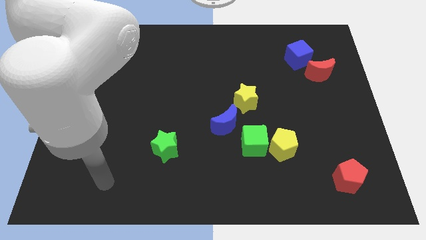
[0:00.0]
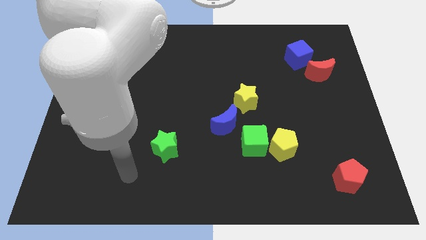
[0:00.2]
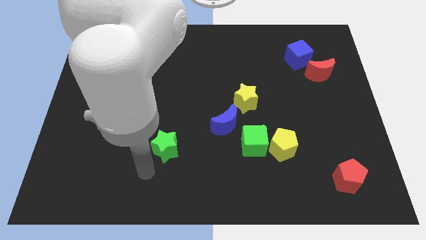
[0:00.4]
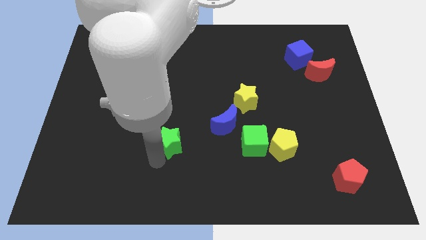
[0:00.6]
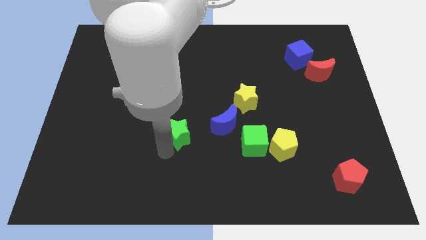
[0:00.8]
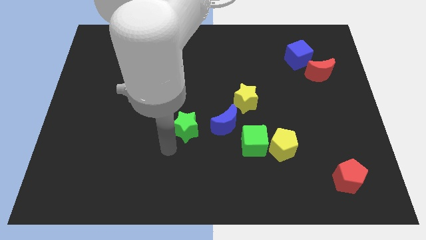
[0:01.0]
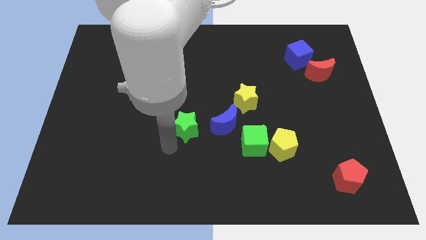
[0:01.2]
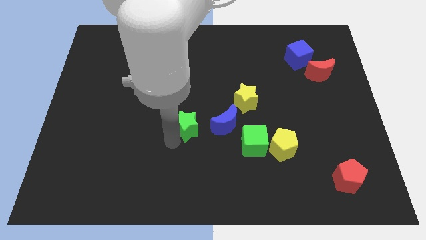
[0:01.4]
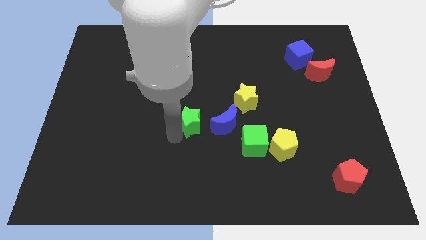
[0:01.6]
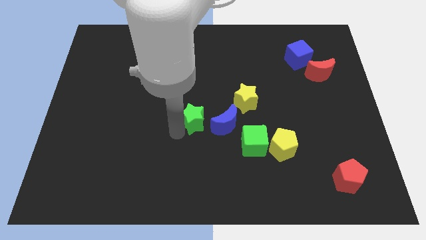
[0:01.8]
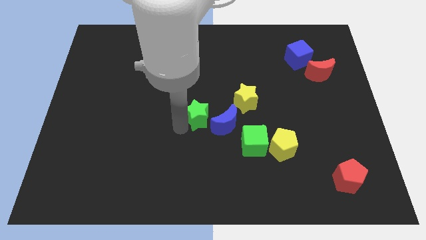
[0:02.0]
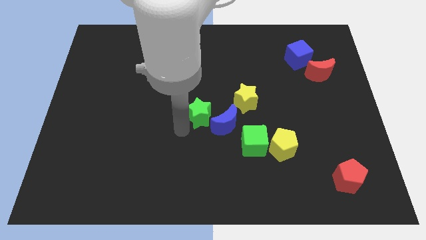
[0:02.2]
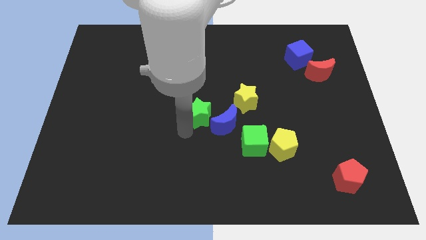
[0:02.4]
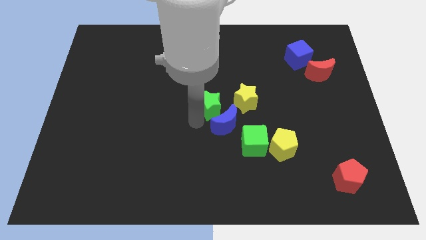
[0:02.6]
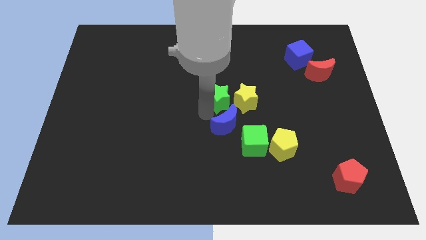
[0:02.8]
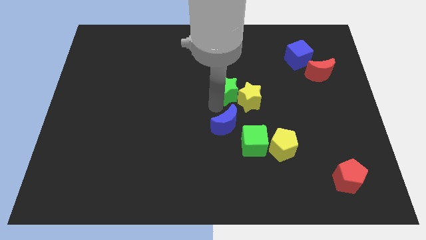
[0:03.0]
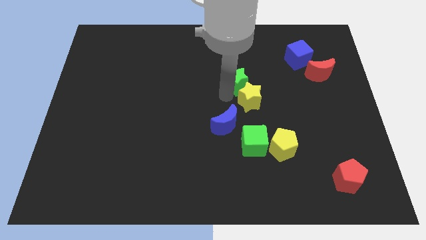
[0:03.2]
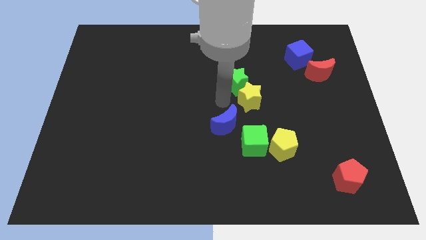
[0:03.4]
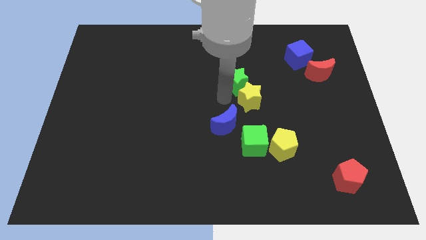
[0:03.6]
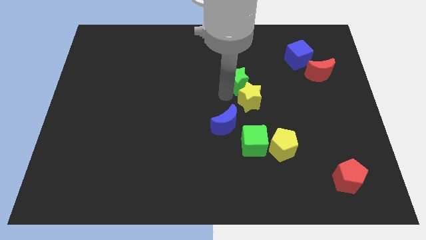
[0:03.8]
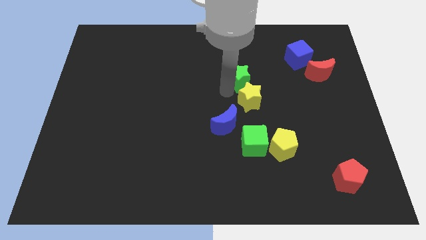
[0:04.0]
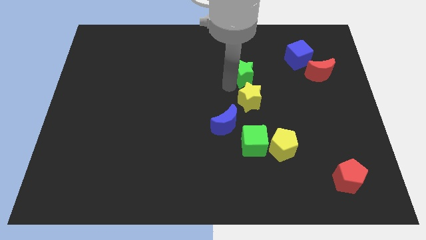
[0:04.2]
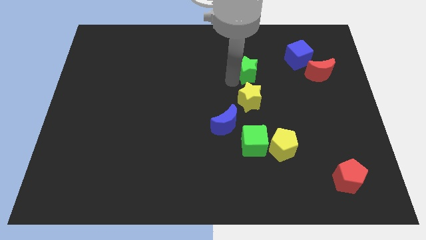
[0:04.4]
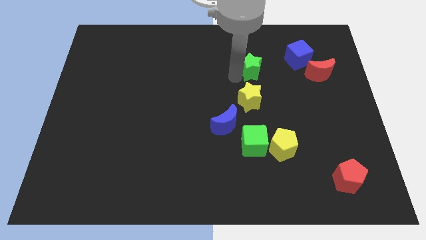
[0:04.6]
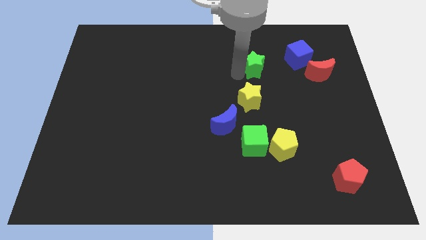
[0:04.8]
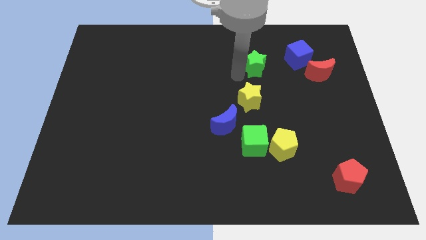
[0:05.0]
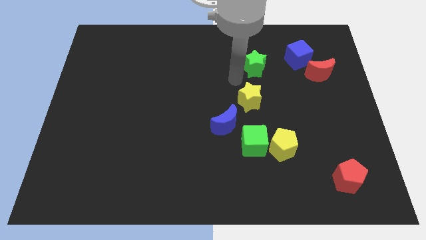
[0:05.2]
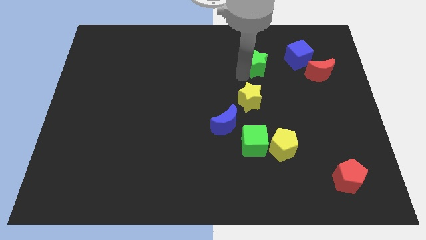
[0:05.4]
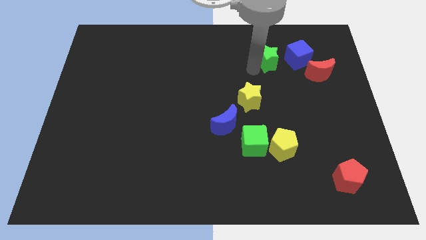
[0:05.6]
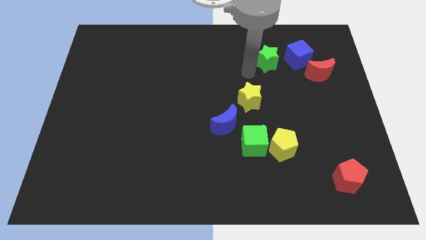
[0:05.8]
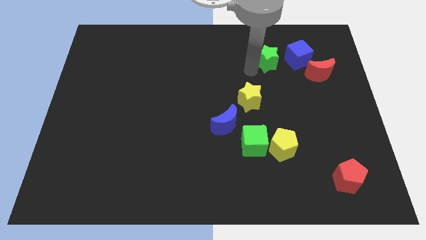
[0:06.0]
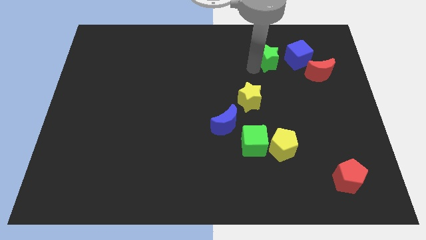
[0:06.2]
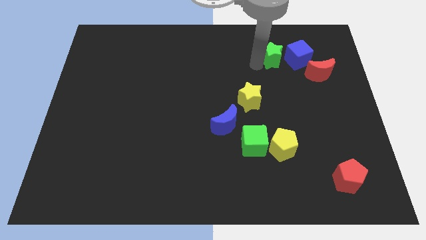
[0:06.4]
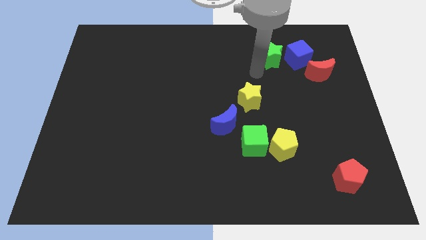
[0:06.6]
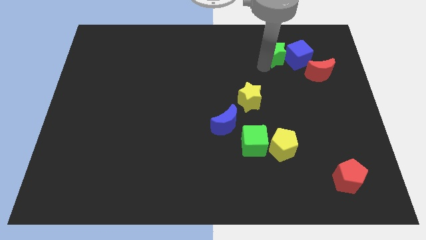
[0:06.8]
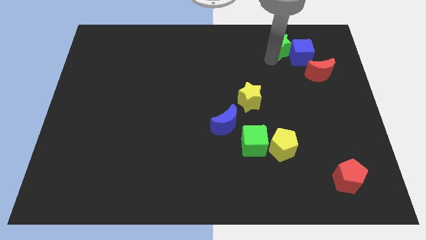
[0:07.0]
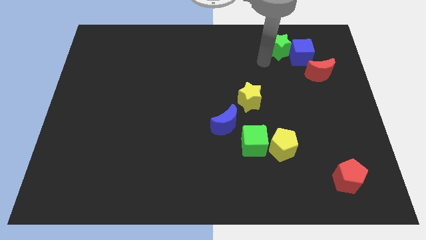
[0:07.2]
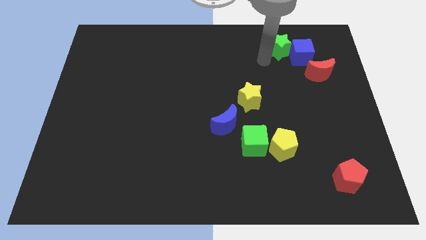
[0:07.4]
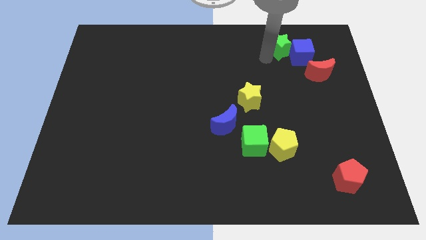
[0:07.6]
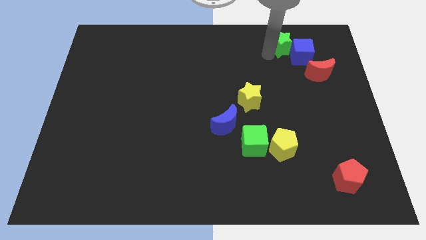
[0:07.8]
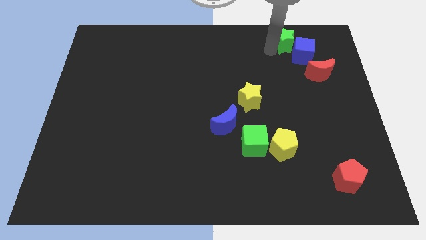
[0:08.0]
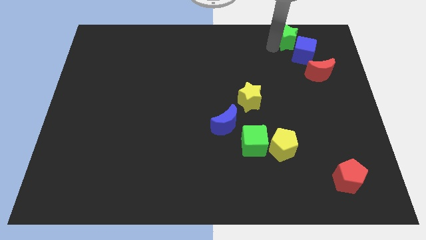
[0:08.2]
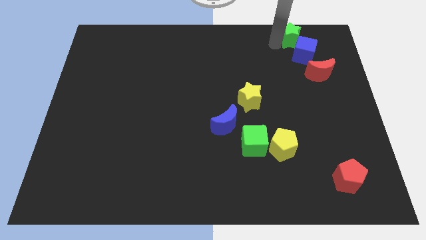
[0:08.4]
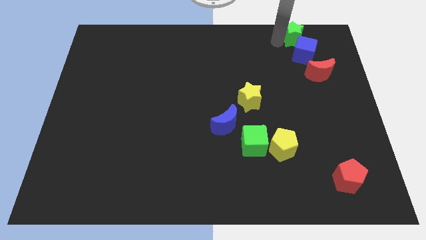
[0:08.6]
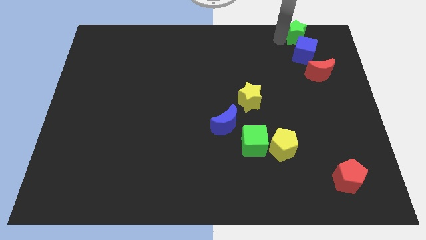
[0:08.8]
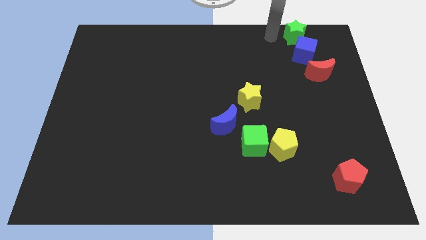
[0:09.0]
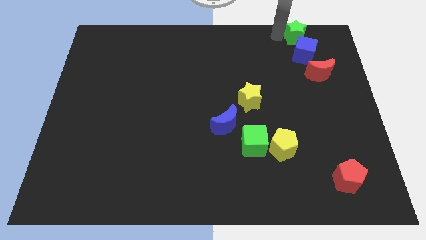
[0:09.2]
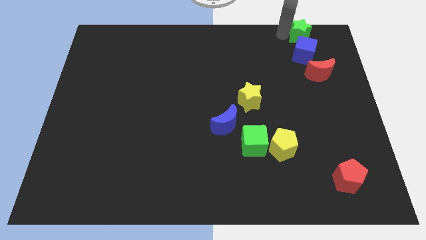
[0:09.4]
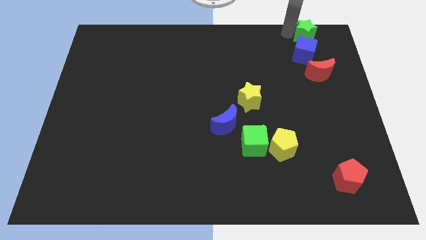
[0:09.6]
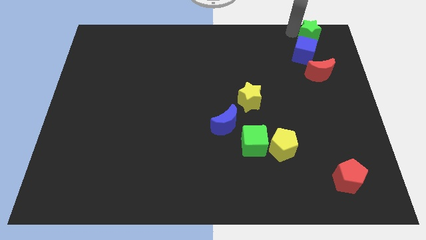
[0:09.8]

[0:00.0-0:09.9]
put the green star to the upper right corner

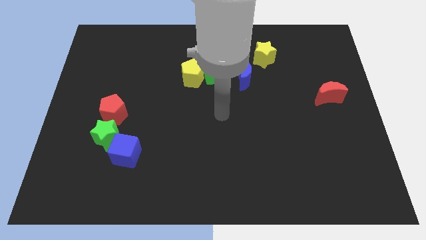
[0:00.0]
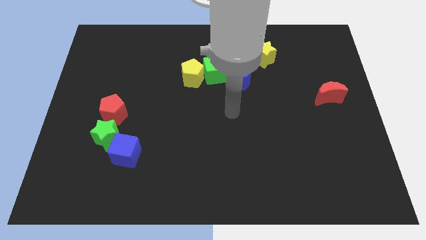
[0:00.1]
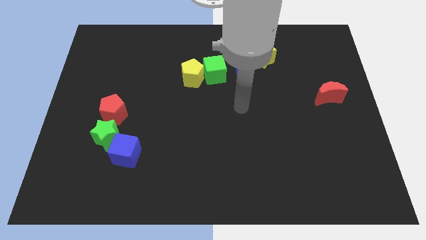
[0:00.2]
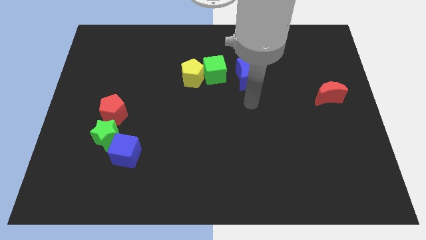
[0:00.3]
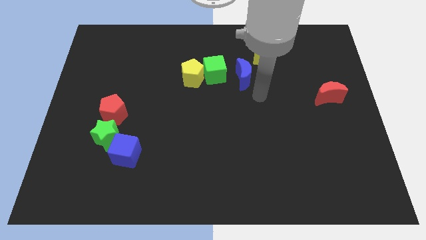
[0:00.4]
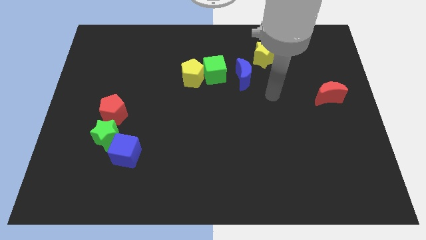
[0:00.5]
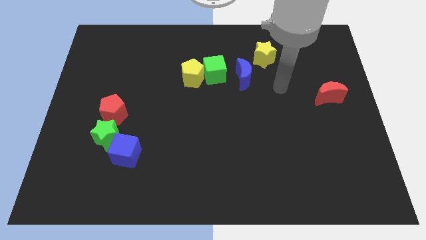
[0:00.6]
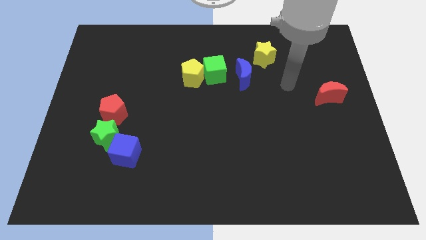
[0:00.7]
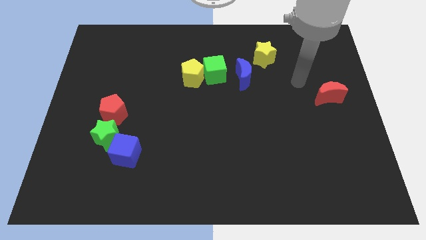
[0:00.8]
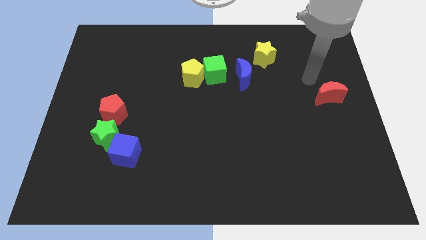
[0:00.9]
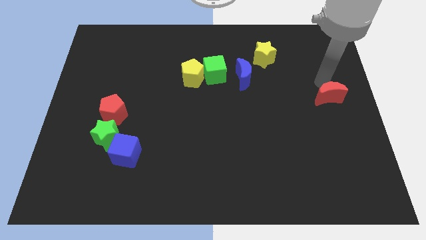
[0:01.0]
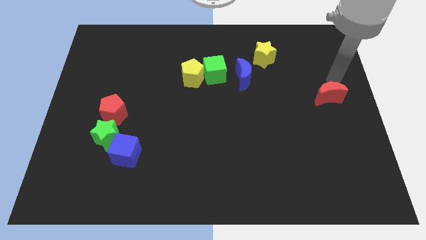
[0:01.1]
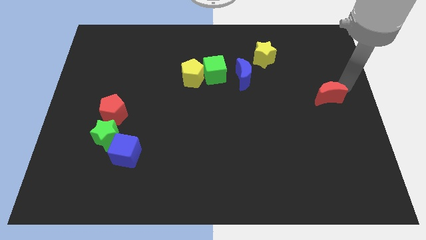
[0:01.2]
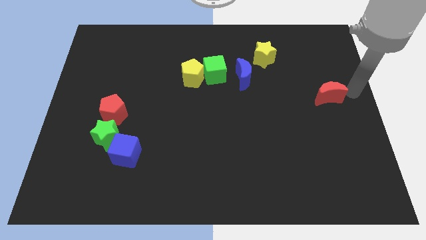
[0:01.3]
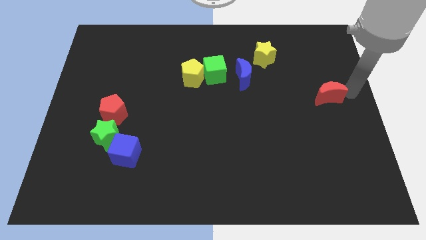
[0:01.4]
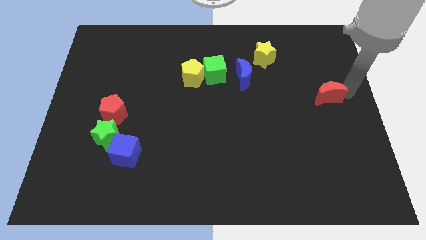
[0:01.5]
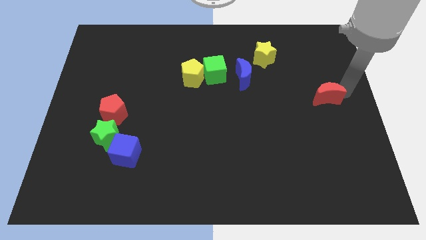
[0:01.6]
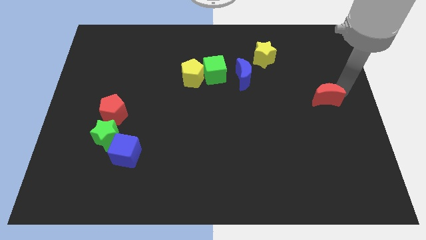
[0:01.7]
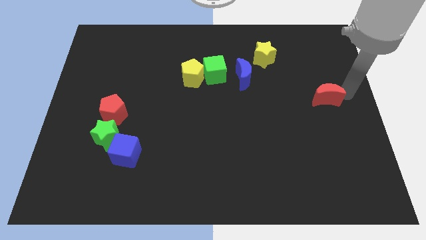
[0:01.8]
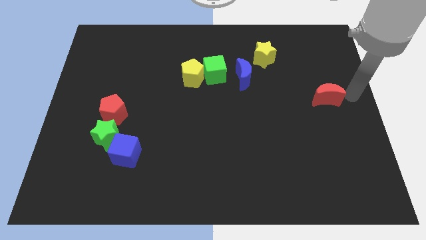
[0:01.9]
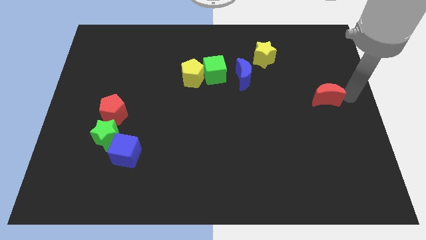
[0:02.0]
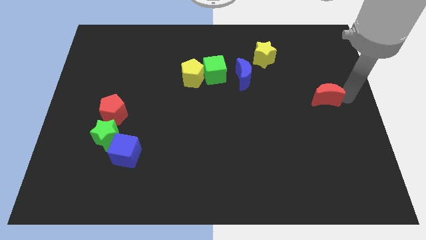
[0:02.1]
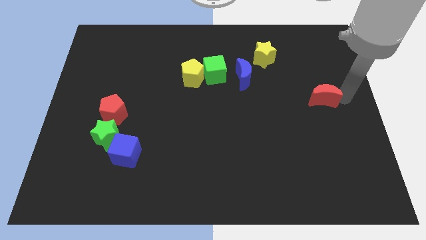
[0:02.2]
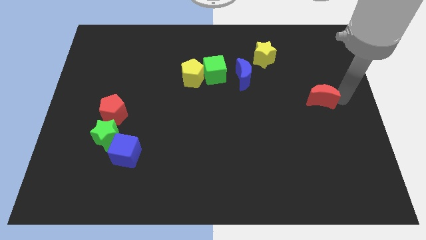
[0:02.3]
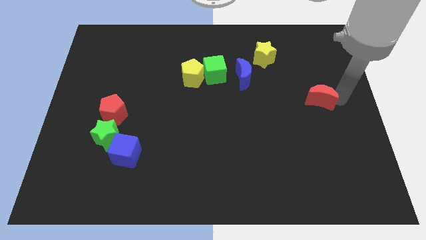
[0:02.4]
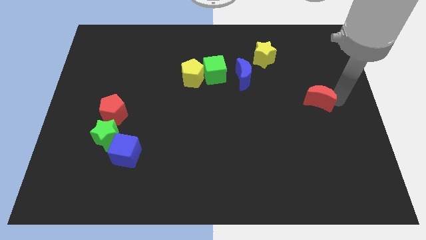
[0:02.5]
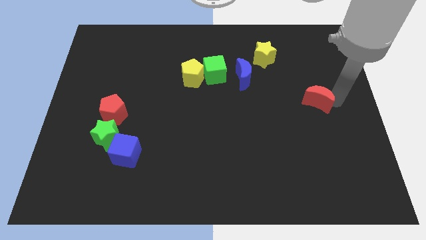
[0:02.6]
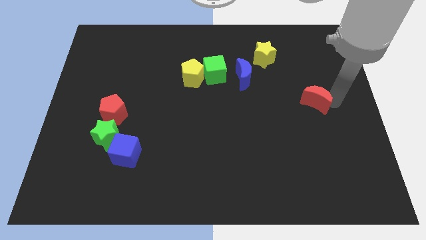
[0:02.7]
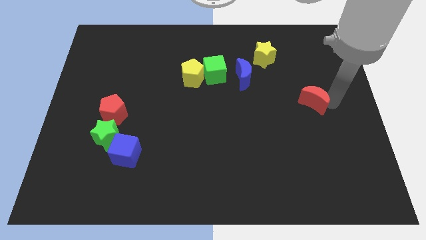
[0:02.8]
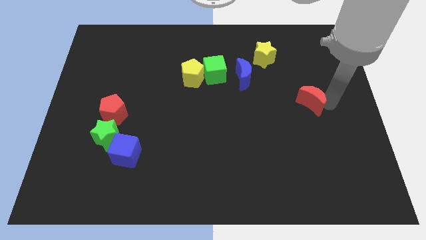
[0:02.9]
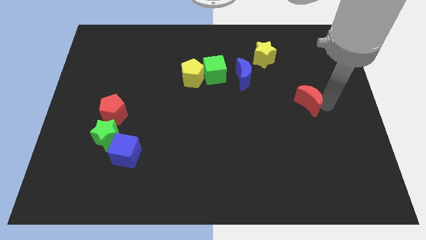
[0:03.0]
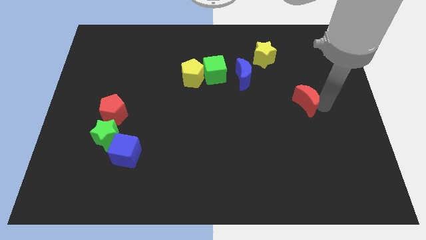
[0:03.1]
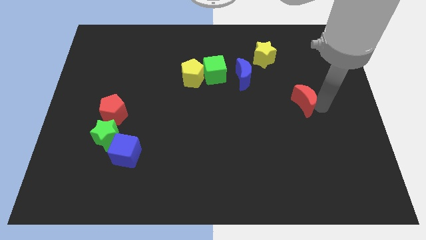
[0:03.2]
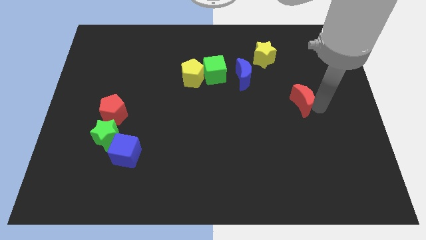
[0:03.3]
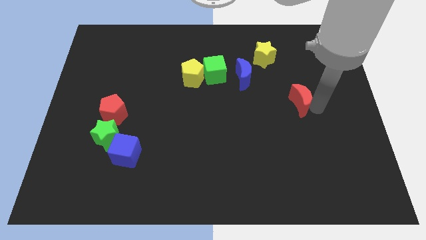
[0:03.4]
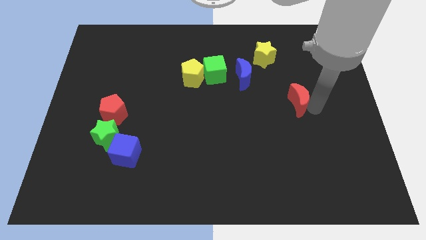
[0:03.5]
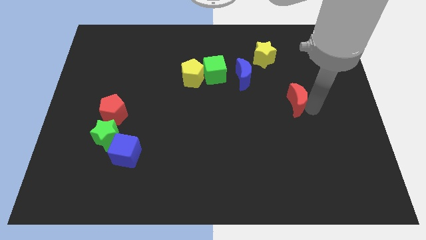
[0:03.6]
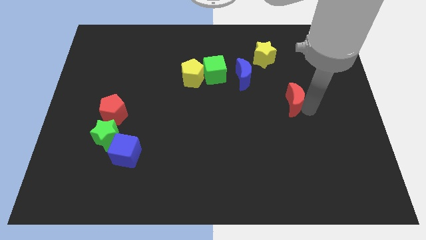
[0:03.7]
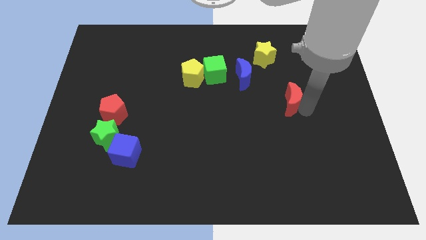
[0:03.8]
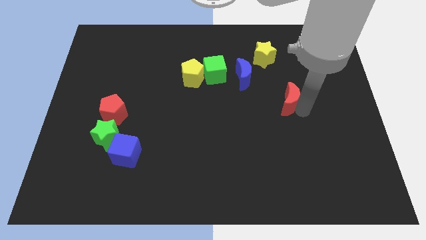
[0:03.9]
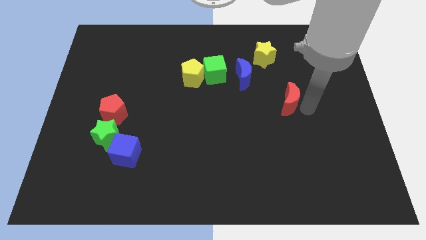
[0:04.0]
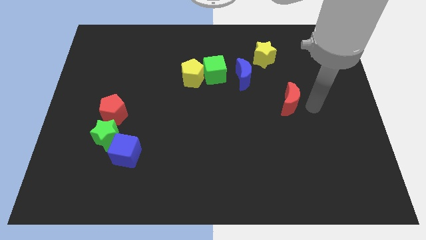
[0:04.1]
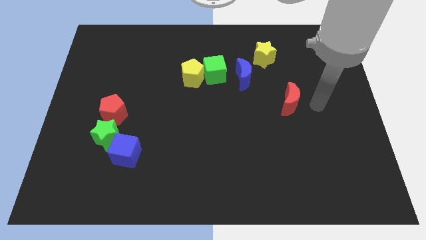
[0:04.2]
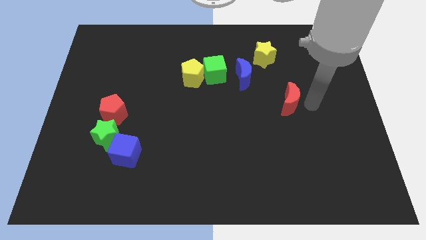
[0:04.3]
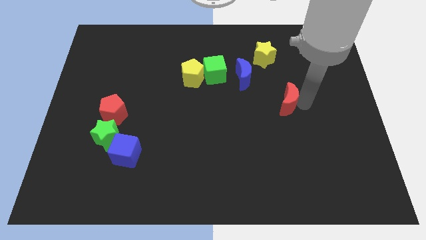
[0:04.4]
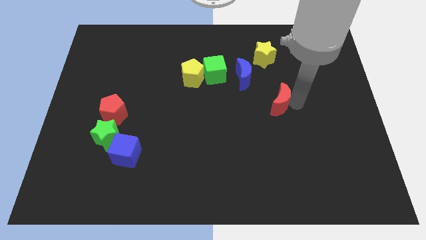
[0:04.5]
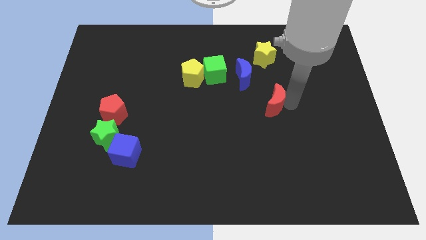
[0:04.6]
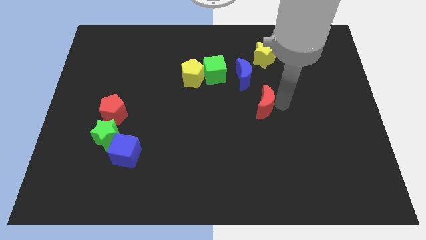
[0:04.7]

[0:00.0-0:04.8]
slide the red moon to the middle
